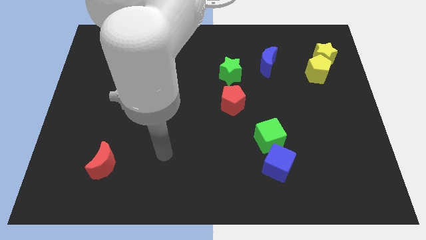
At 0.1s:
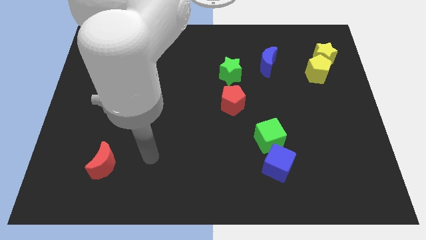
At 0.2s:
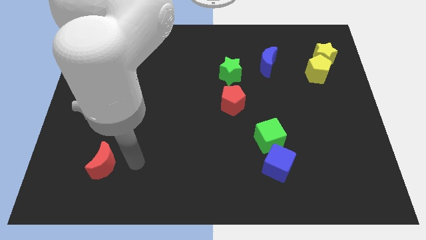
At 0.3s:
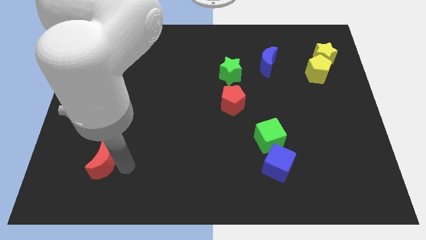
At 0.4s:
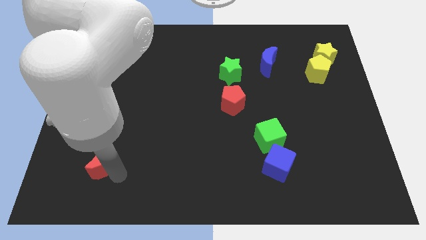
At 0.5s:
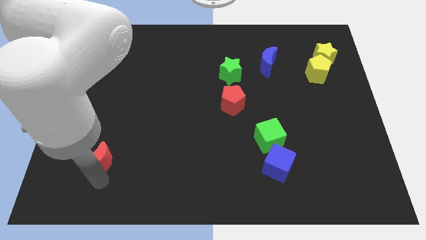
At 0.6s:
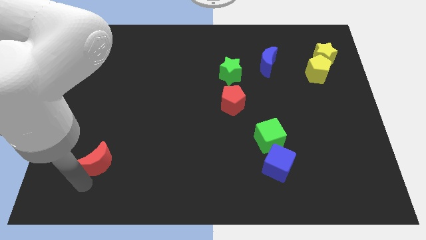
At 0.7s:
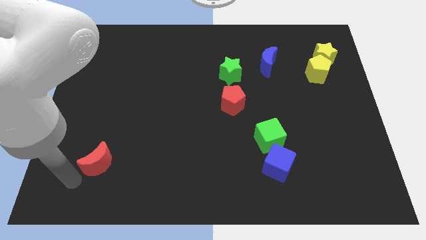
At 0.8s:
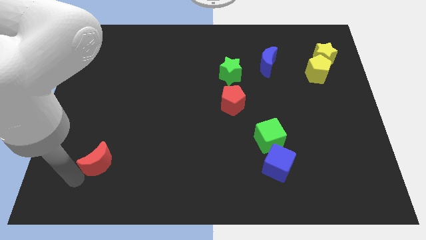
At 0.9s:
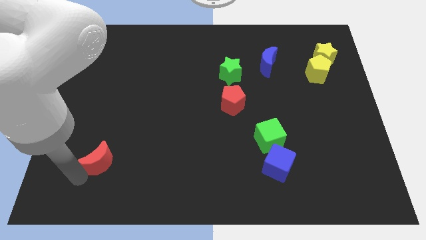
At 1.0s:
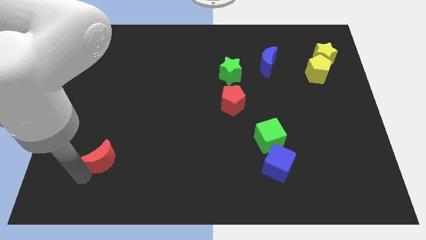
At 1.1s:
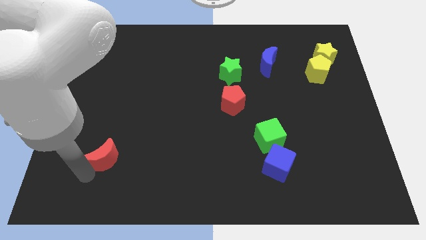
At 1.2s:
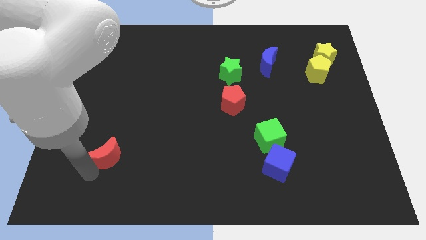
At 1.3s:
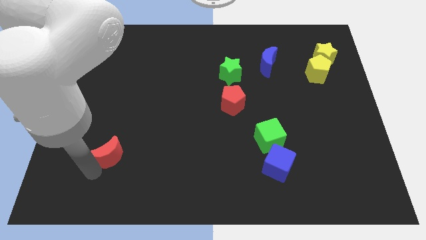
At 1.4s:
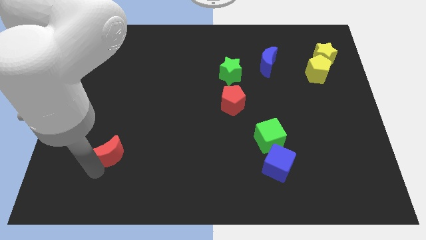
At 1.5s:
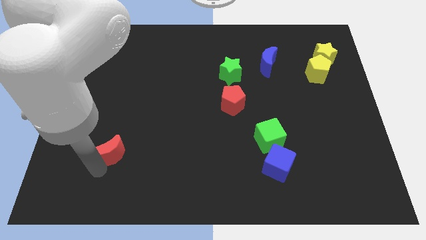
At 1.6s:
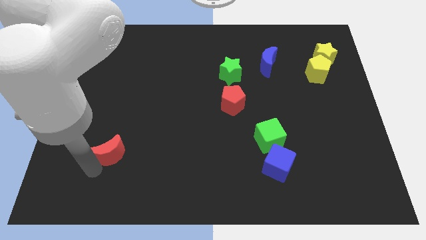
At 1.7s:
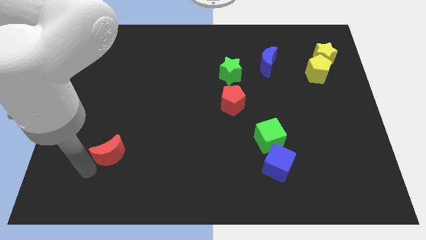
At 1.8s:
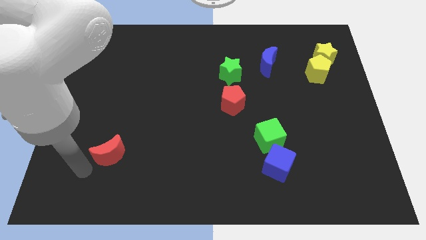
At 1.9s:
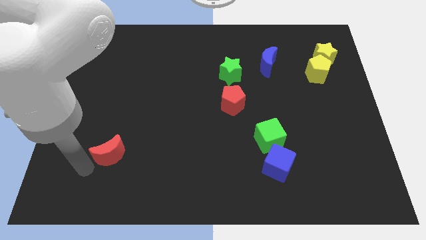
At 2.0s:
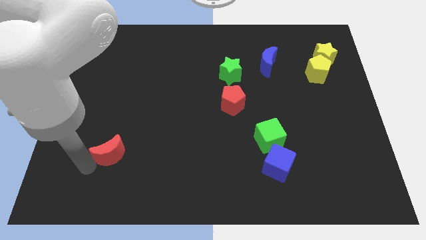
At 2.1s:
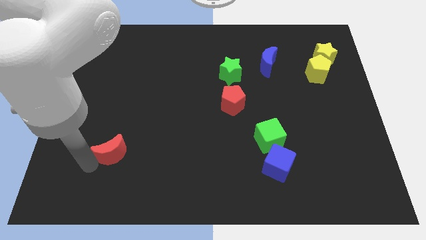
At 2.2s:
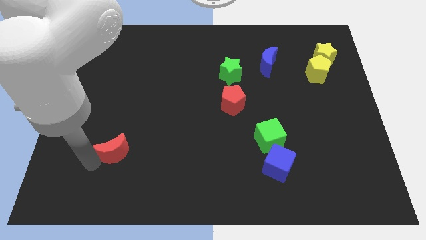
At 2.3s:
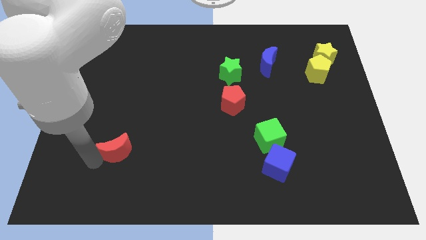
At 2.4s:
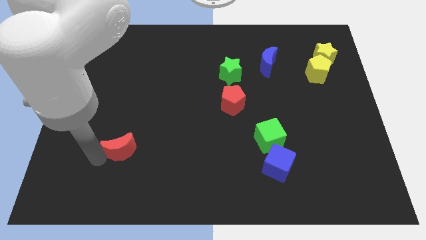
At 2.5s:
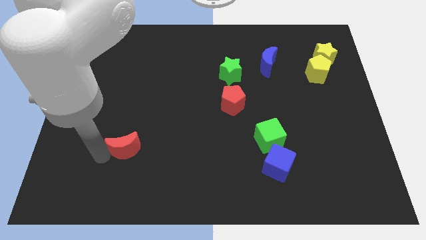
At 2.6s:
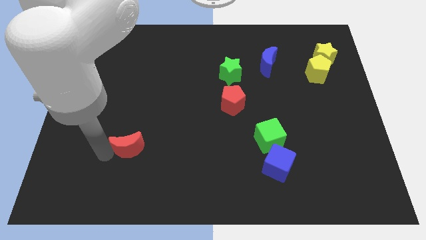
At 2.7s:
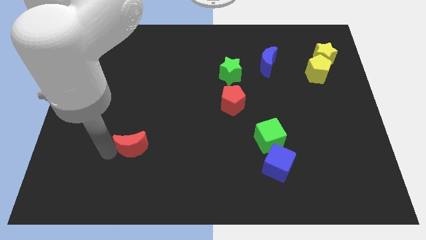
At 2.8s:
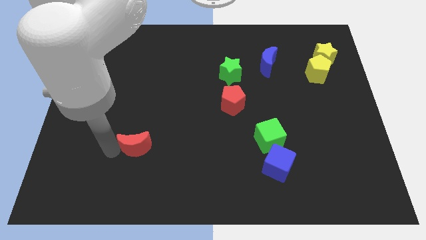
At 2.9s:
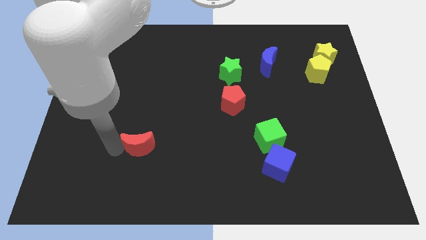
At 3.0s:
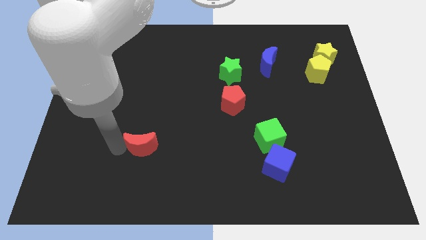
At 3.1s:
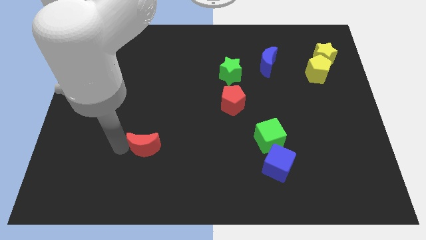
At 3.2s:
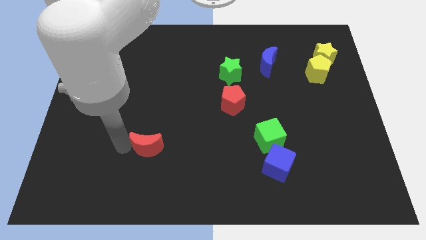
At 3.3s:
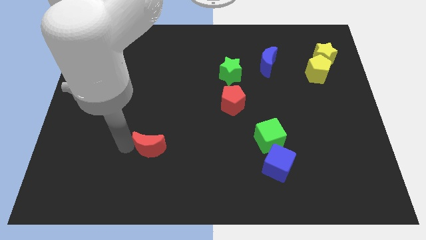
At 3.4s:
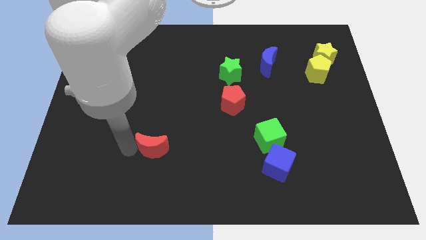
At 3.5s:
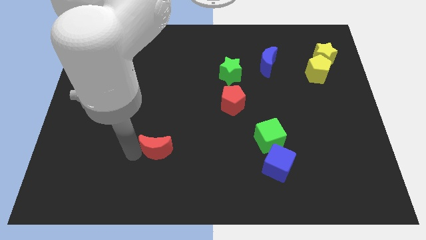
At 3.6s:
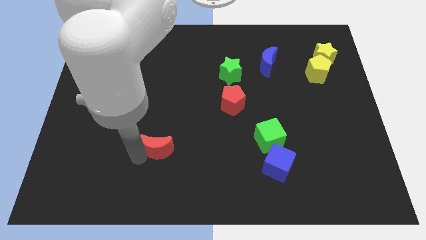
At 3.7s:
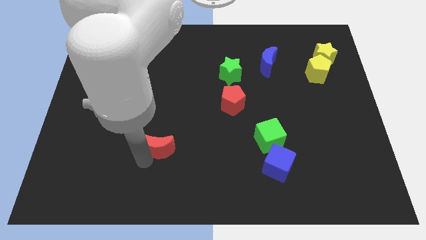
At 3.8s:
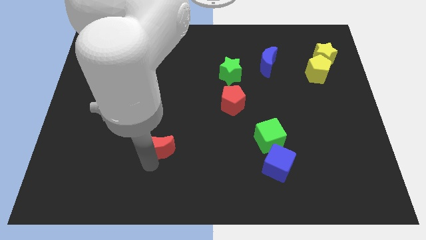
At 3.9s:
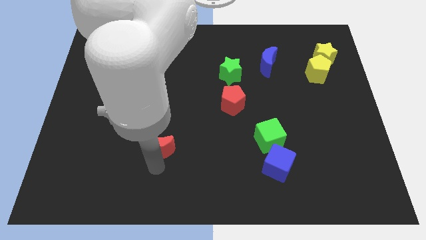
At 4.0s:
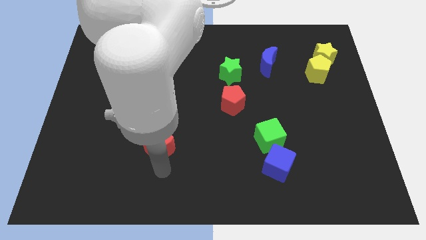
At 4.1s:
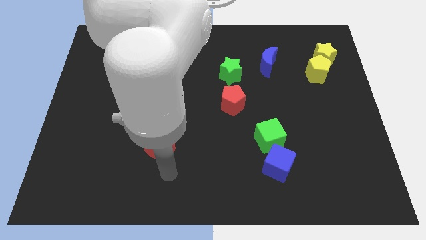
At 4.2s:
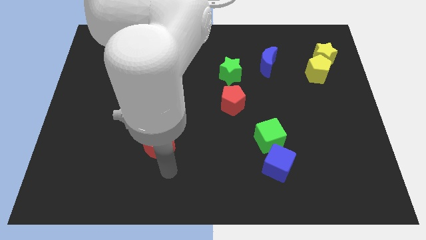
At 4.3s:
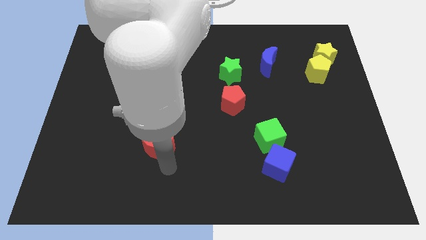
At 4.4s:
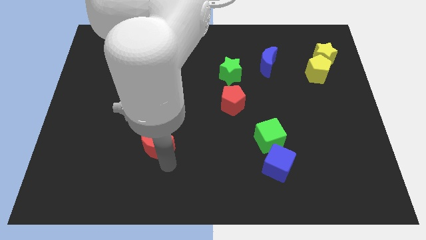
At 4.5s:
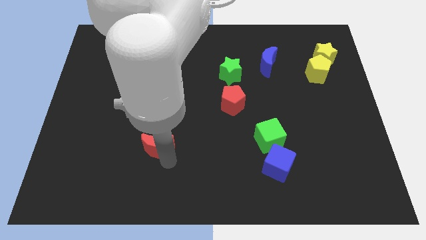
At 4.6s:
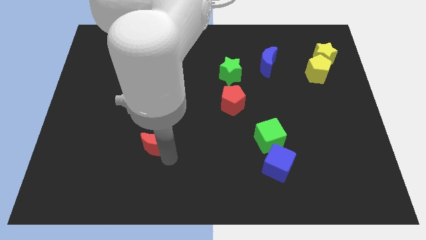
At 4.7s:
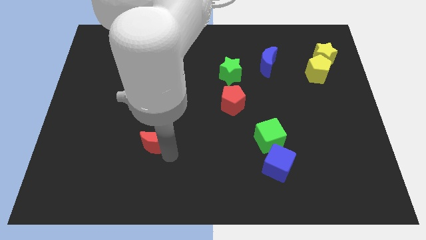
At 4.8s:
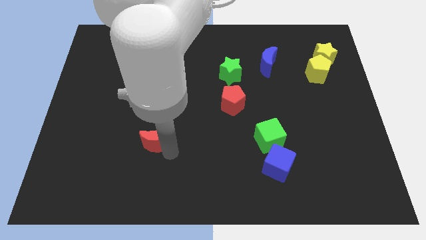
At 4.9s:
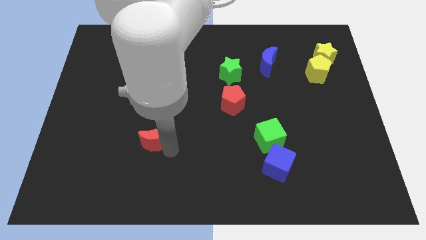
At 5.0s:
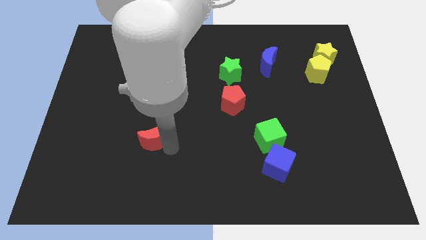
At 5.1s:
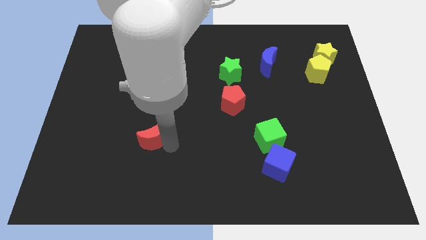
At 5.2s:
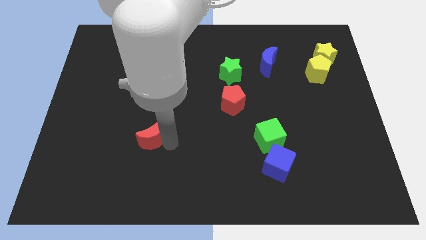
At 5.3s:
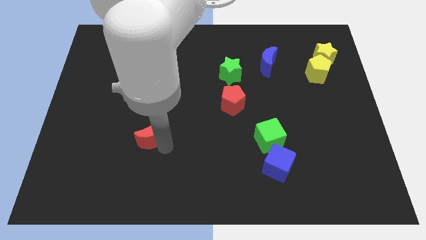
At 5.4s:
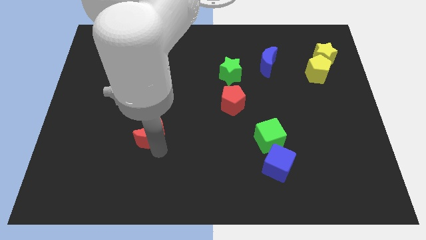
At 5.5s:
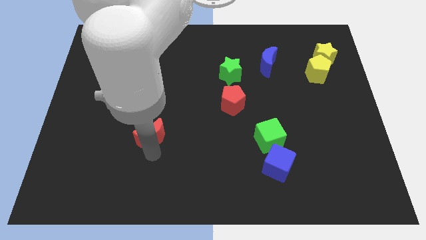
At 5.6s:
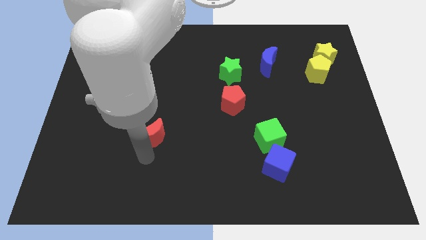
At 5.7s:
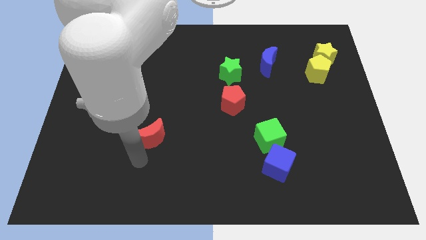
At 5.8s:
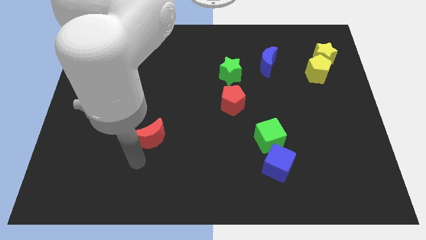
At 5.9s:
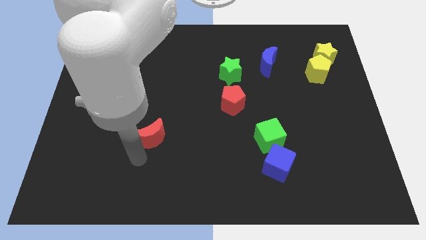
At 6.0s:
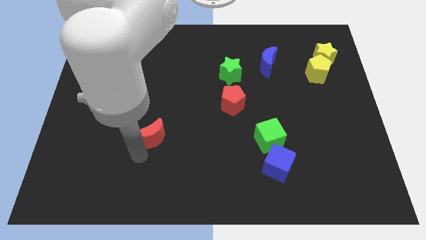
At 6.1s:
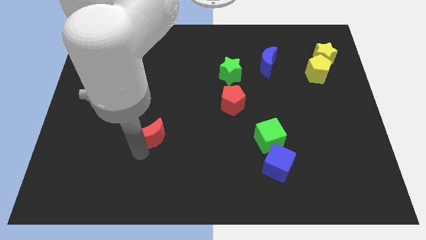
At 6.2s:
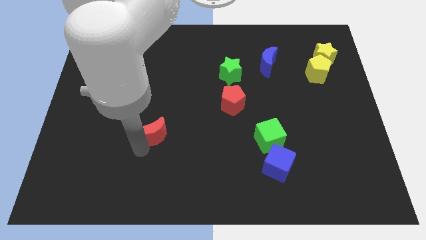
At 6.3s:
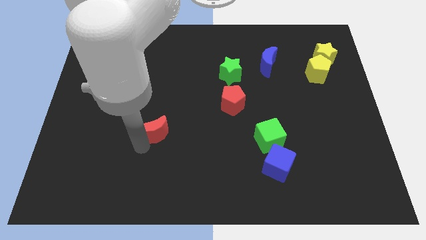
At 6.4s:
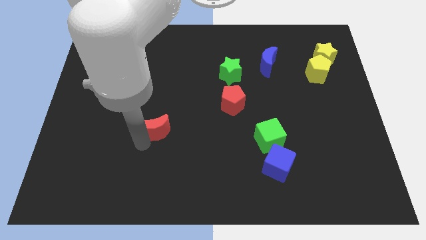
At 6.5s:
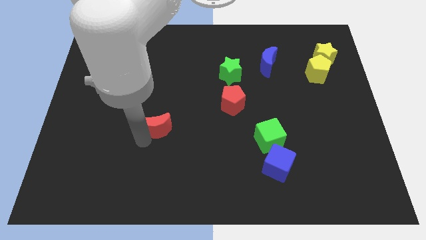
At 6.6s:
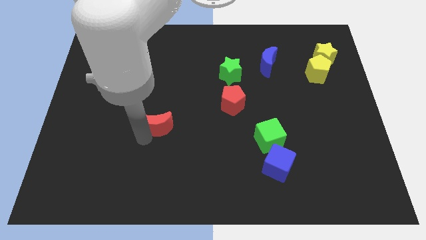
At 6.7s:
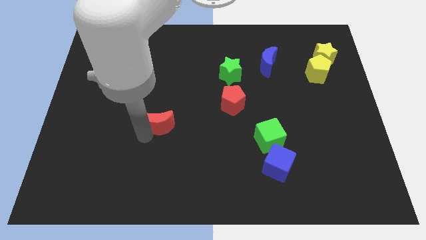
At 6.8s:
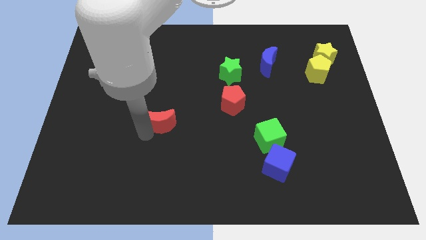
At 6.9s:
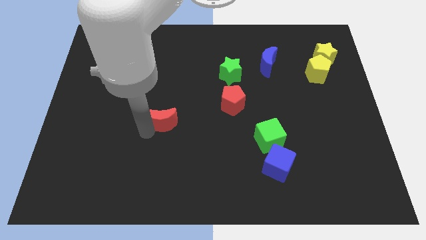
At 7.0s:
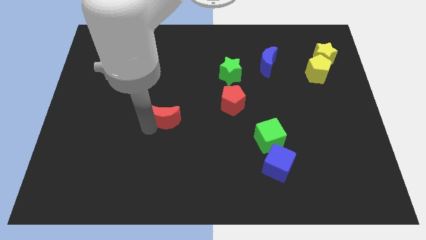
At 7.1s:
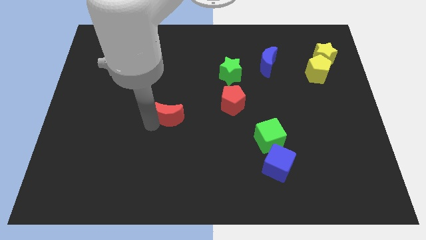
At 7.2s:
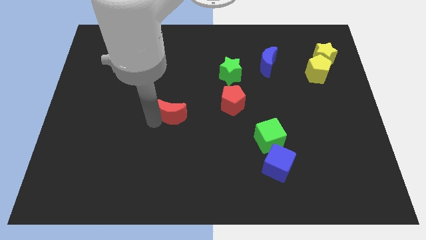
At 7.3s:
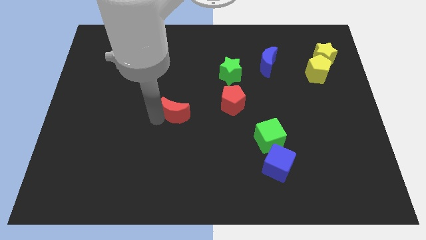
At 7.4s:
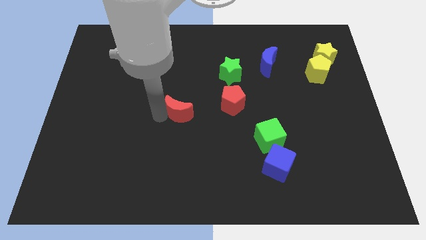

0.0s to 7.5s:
move the red moon diagonally up and right

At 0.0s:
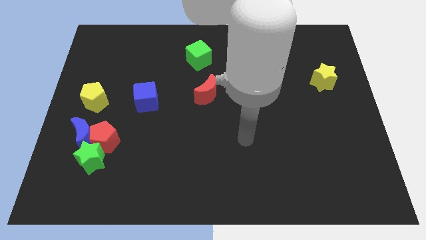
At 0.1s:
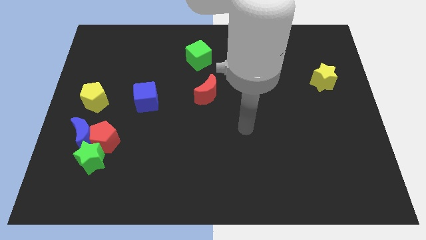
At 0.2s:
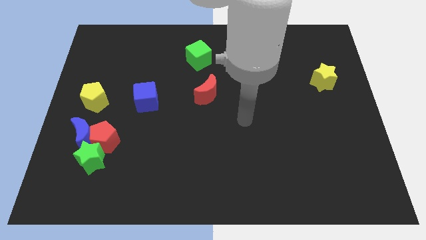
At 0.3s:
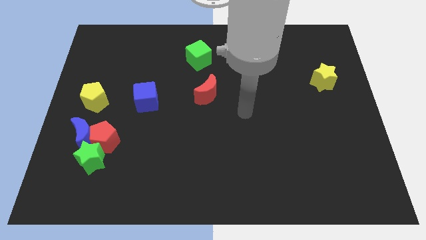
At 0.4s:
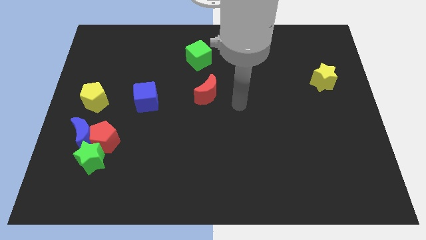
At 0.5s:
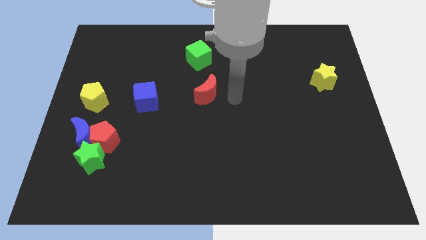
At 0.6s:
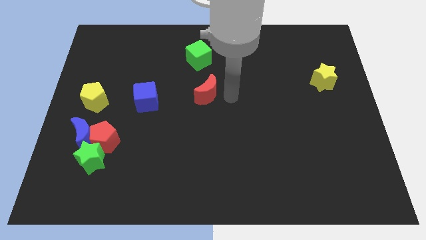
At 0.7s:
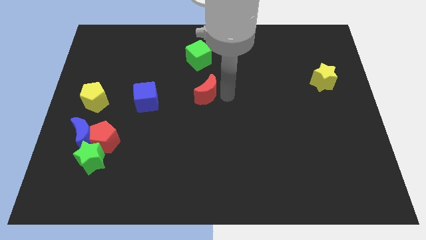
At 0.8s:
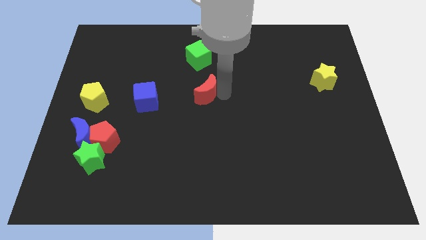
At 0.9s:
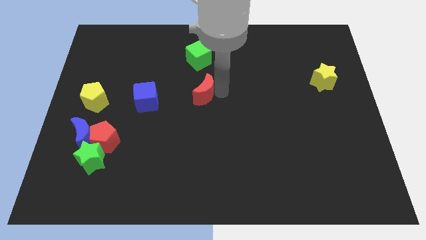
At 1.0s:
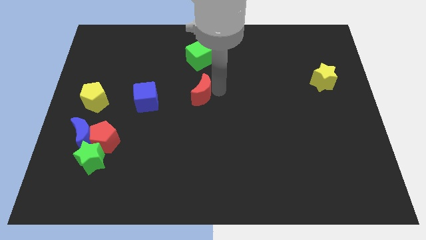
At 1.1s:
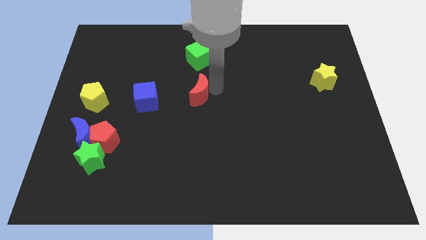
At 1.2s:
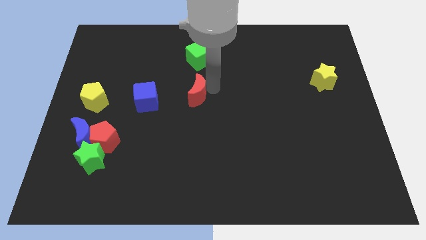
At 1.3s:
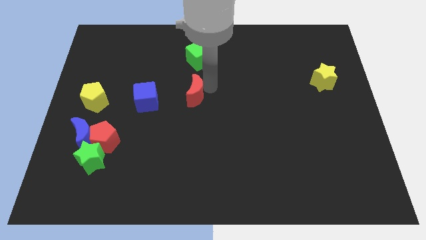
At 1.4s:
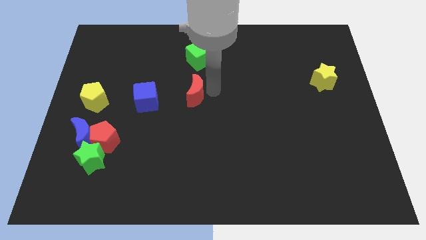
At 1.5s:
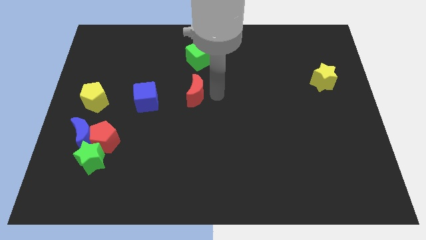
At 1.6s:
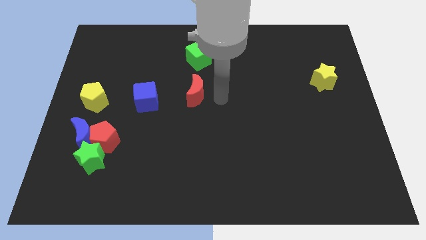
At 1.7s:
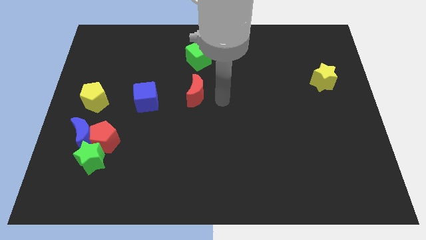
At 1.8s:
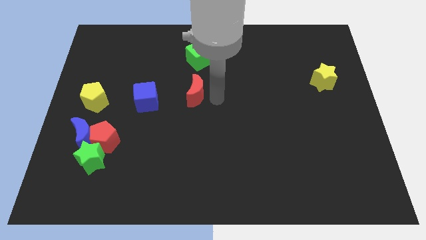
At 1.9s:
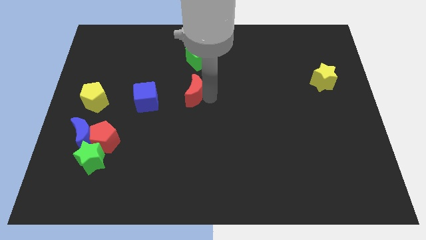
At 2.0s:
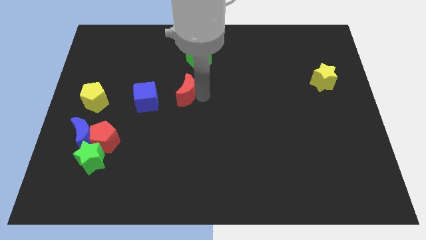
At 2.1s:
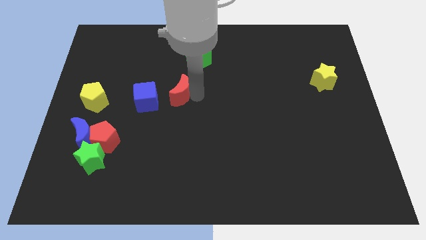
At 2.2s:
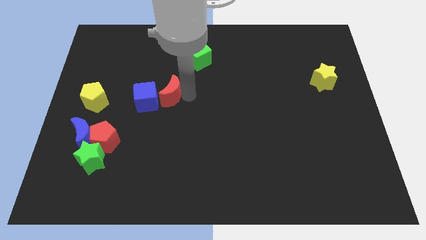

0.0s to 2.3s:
slide the red moon to the left somewhat
